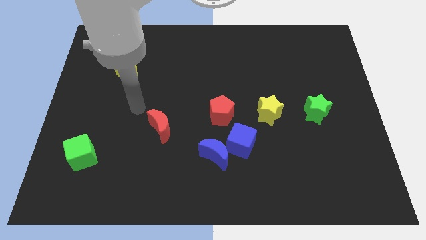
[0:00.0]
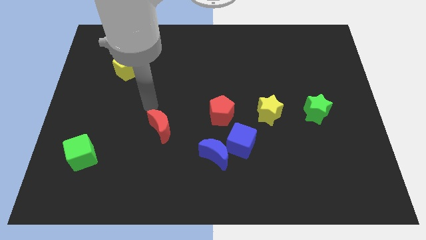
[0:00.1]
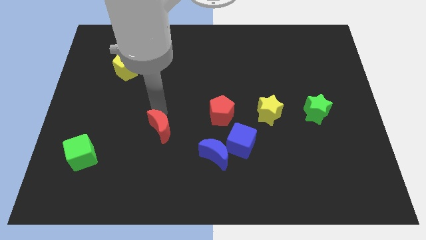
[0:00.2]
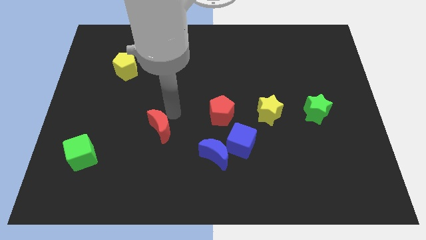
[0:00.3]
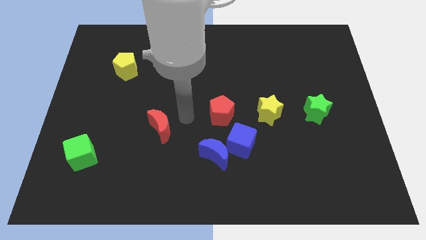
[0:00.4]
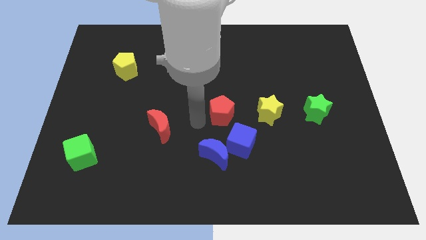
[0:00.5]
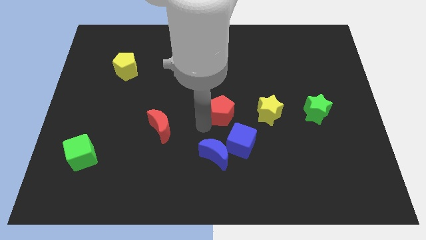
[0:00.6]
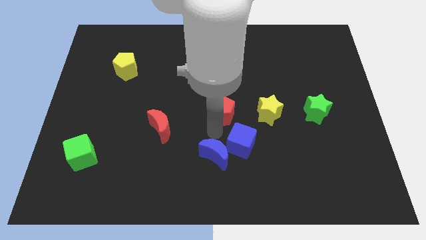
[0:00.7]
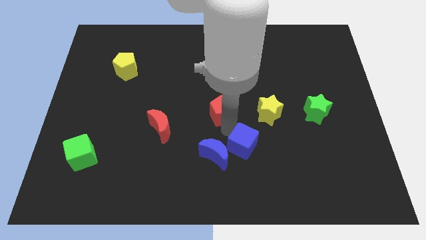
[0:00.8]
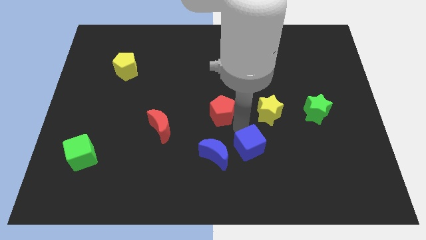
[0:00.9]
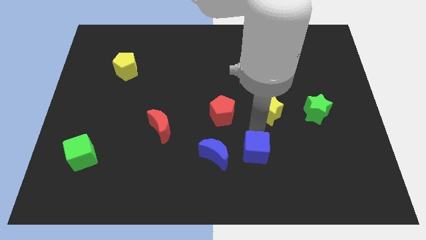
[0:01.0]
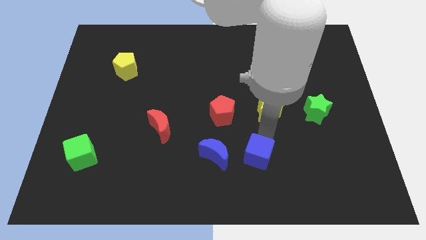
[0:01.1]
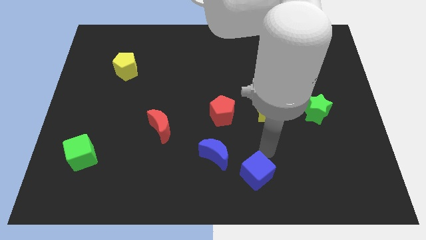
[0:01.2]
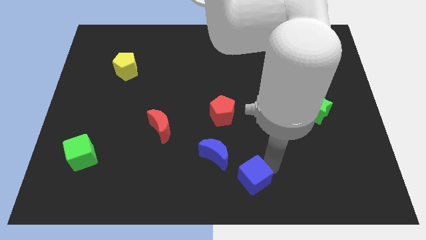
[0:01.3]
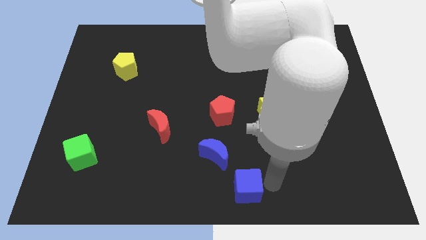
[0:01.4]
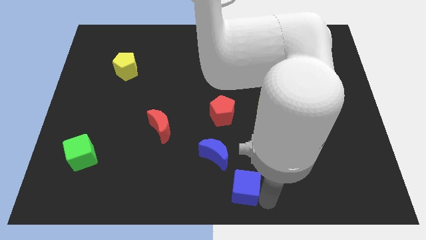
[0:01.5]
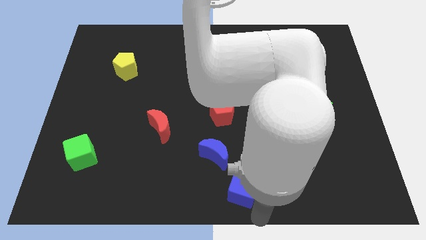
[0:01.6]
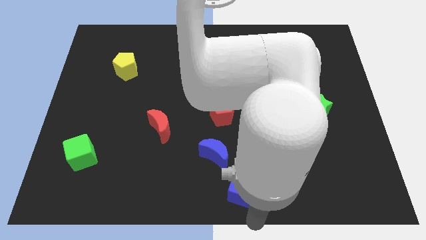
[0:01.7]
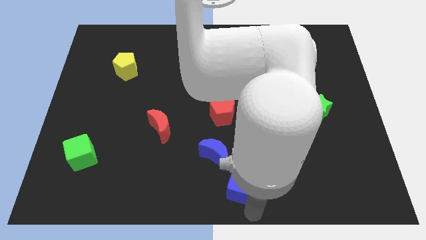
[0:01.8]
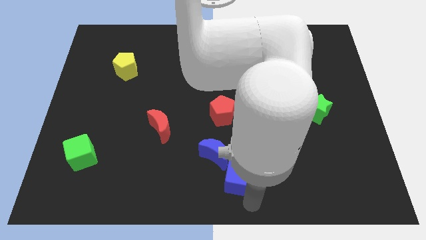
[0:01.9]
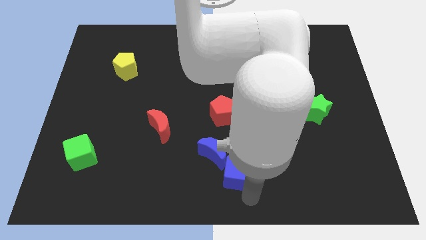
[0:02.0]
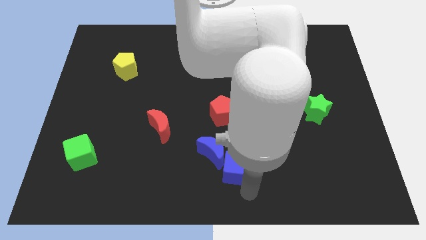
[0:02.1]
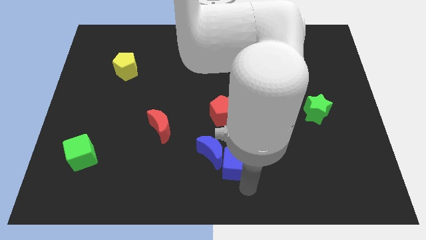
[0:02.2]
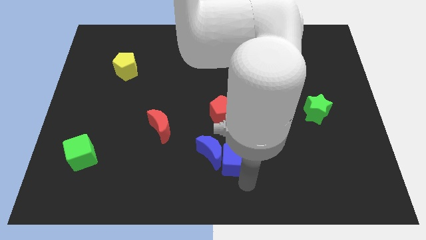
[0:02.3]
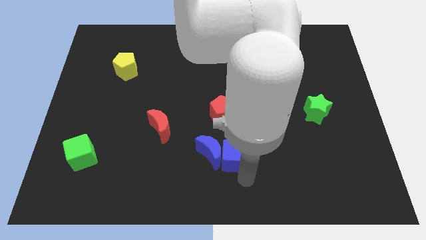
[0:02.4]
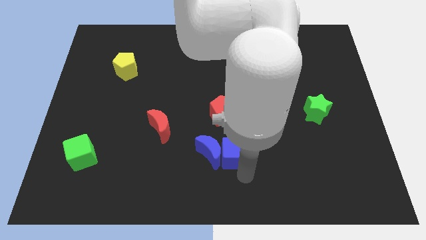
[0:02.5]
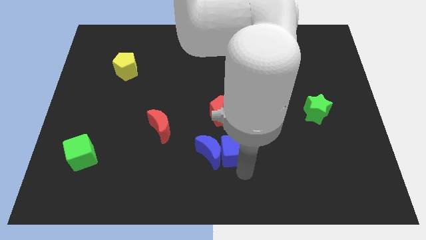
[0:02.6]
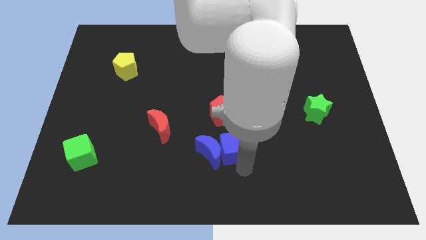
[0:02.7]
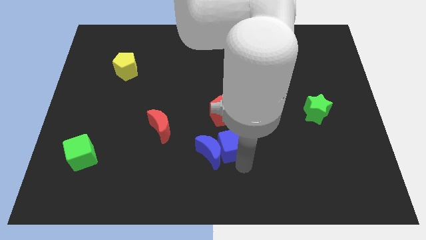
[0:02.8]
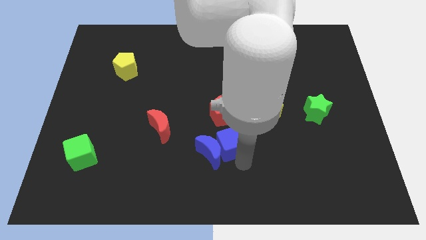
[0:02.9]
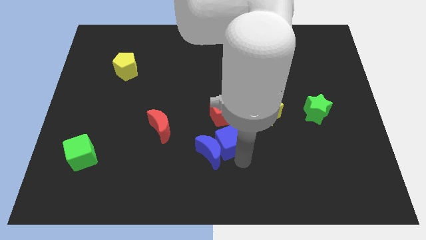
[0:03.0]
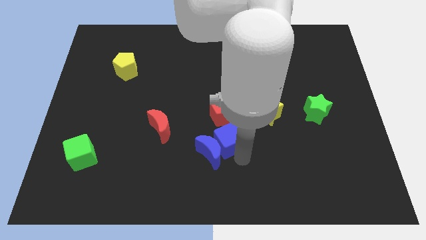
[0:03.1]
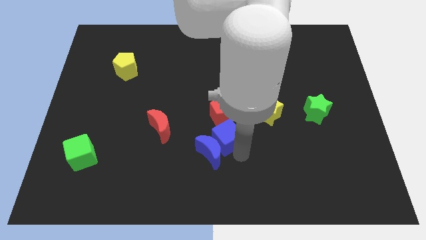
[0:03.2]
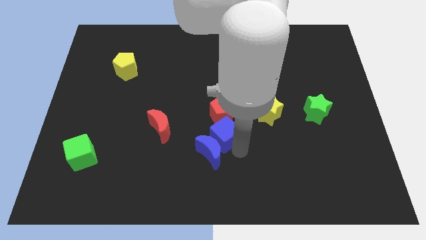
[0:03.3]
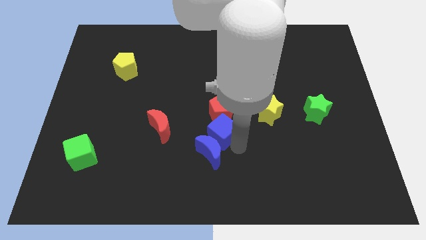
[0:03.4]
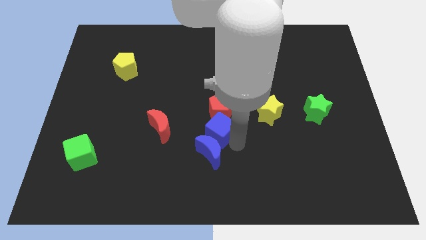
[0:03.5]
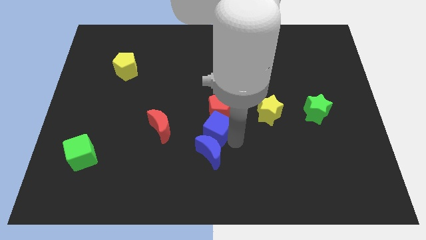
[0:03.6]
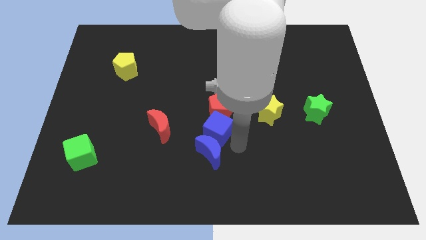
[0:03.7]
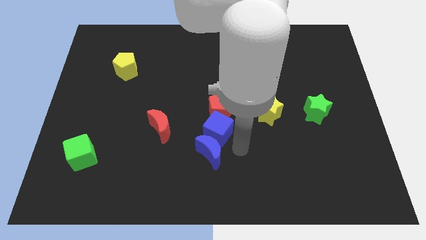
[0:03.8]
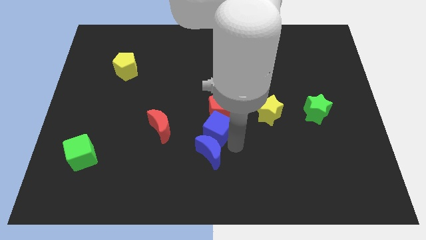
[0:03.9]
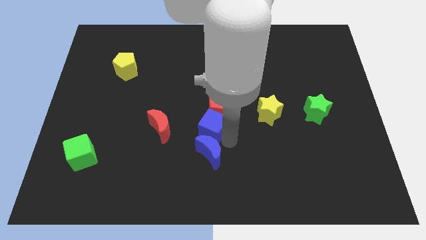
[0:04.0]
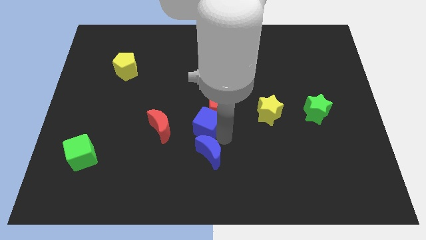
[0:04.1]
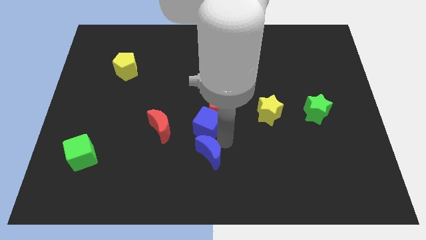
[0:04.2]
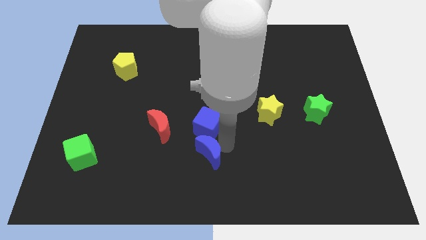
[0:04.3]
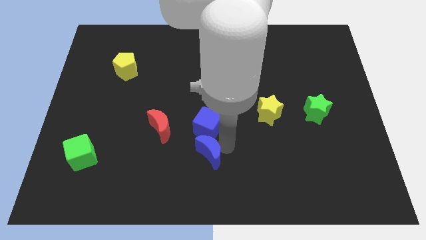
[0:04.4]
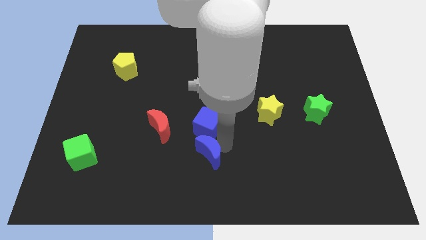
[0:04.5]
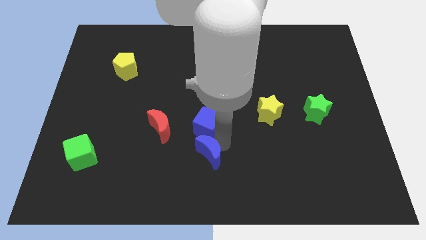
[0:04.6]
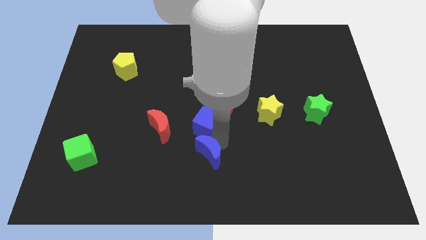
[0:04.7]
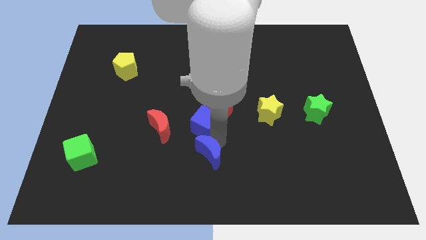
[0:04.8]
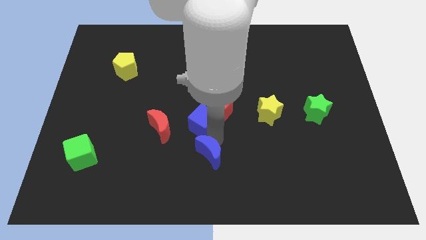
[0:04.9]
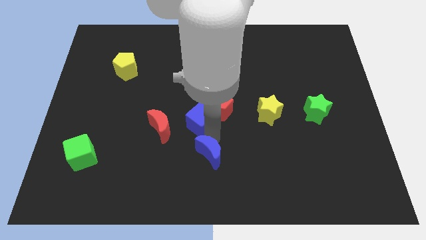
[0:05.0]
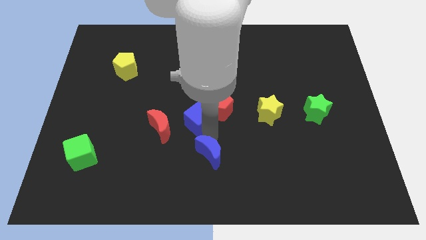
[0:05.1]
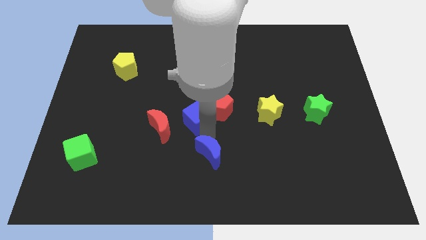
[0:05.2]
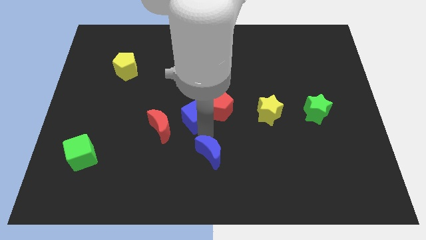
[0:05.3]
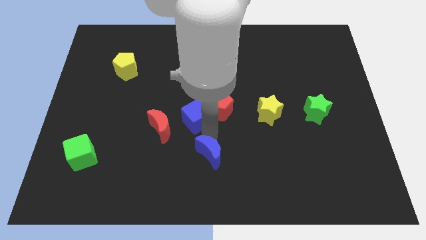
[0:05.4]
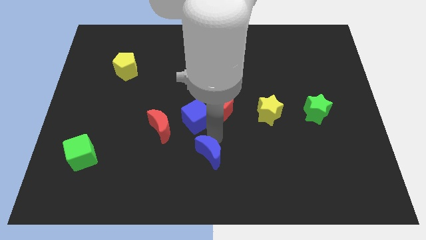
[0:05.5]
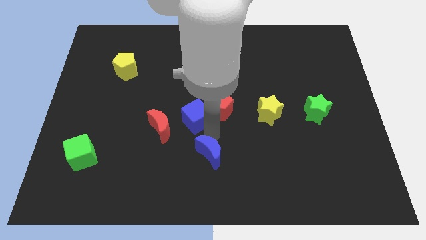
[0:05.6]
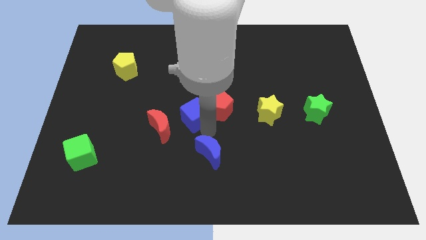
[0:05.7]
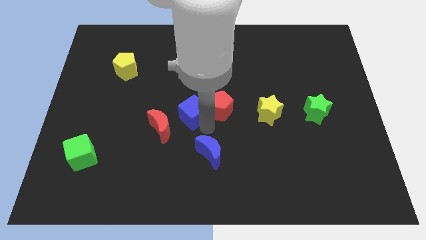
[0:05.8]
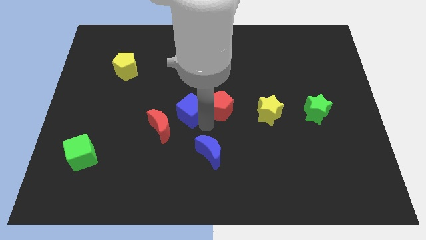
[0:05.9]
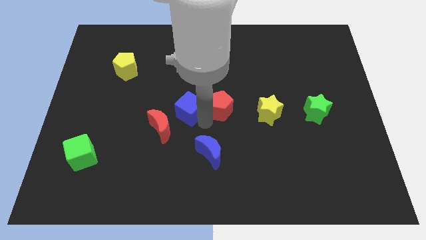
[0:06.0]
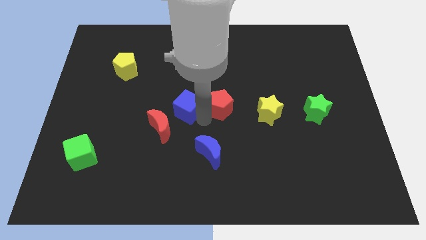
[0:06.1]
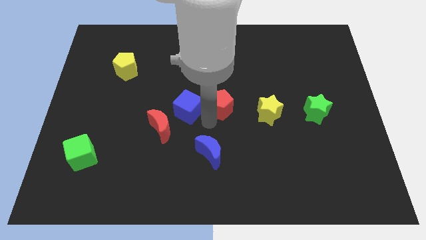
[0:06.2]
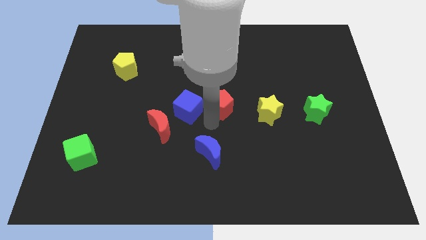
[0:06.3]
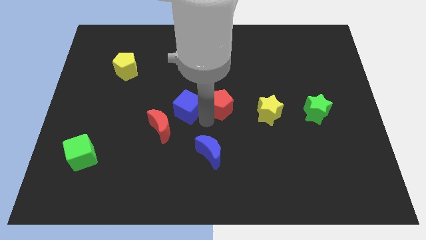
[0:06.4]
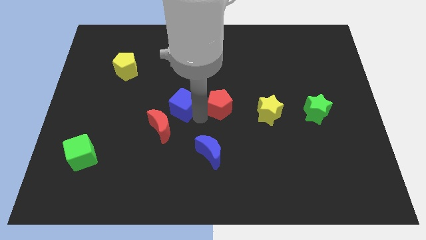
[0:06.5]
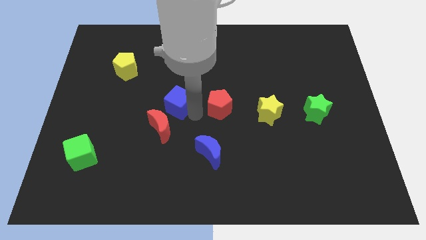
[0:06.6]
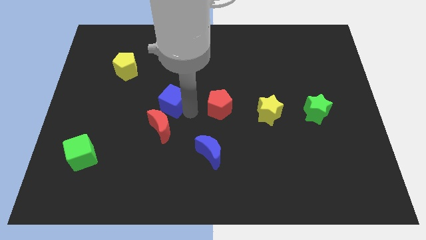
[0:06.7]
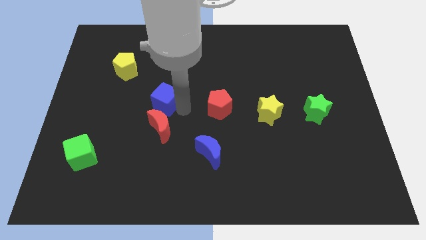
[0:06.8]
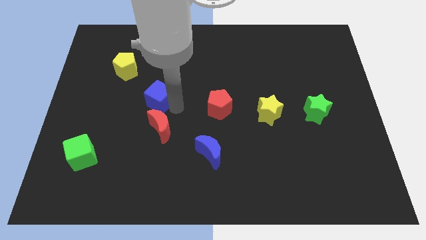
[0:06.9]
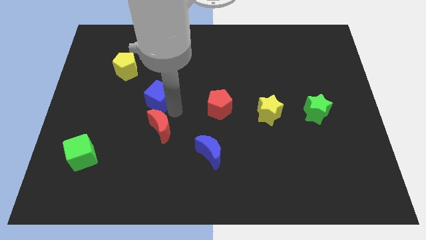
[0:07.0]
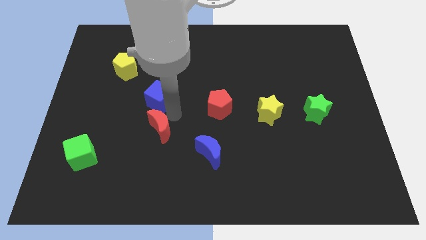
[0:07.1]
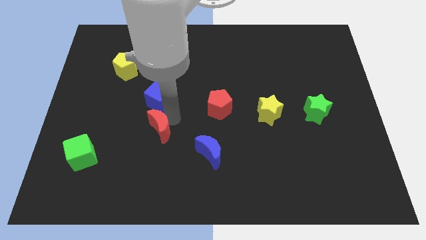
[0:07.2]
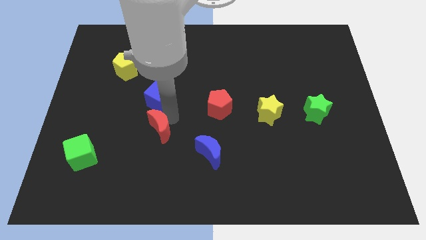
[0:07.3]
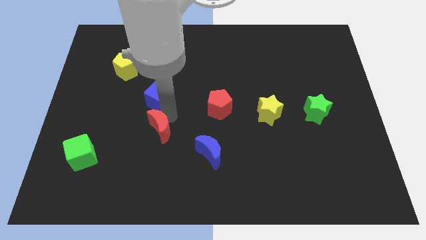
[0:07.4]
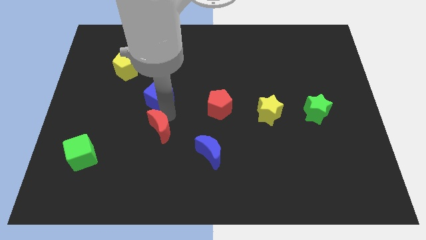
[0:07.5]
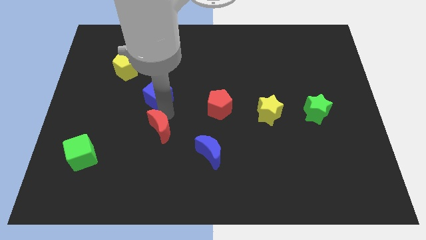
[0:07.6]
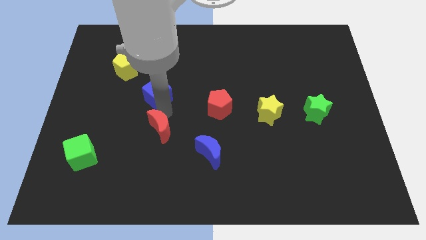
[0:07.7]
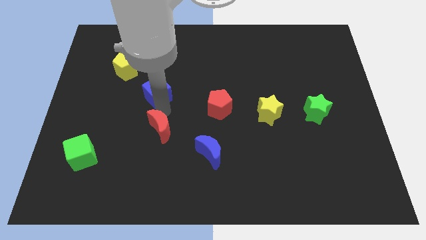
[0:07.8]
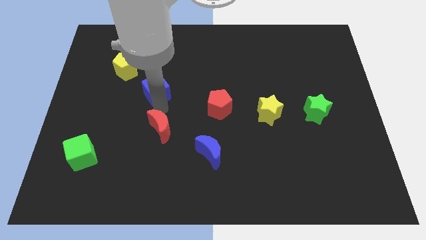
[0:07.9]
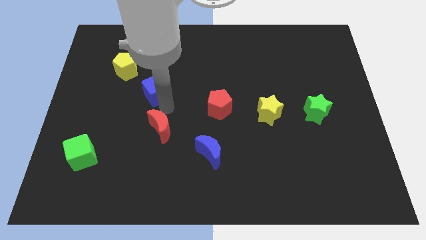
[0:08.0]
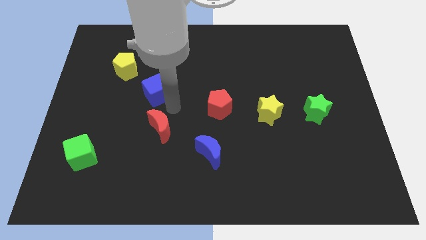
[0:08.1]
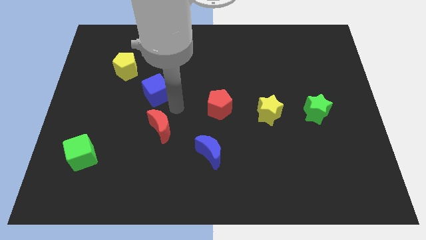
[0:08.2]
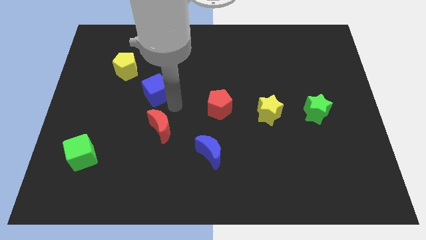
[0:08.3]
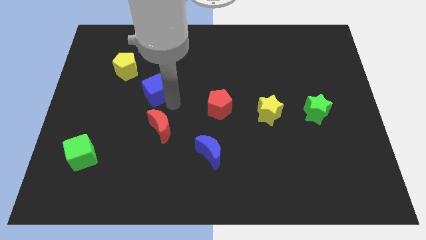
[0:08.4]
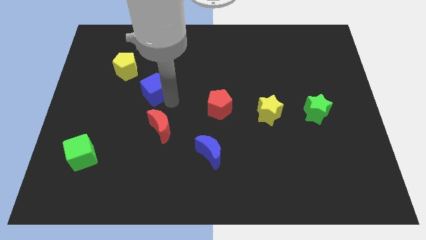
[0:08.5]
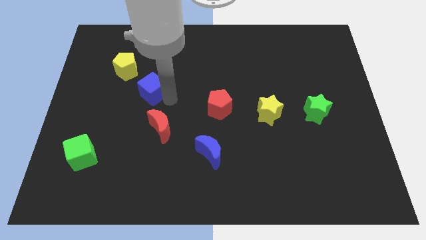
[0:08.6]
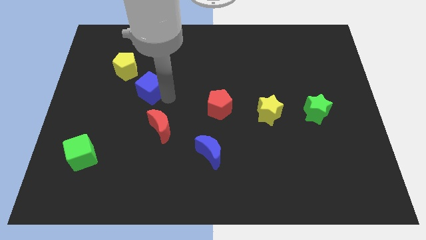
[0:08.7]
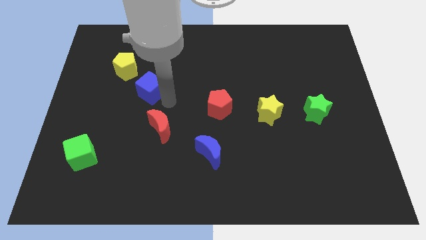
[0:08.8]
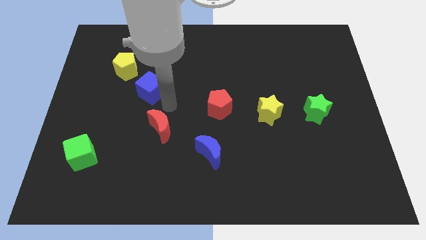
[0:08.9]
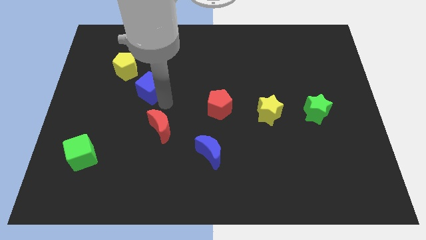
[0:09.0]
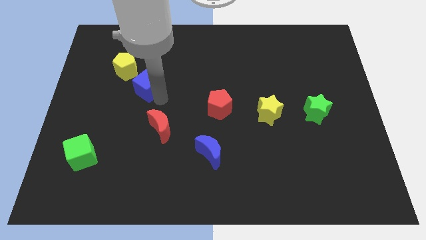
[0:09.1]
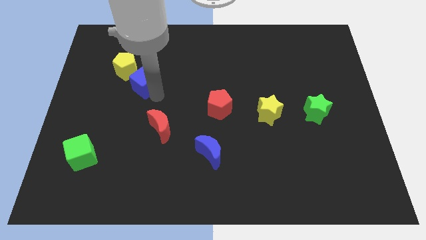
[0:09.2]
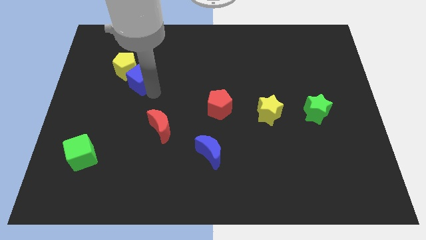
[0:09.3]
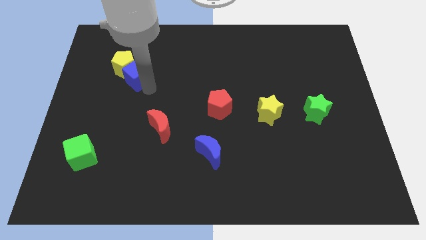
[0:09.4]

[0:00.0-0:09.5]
move the blue cube next to the yellow pentagon
